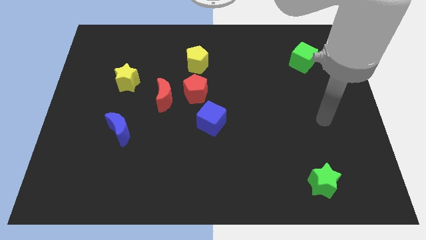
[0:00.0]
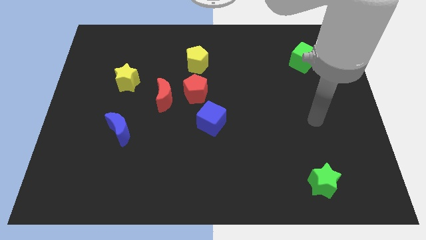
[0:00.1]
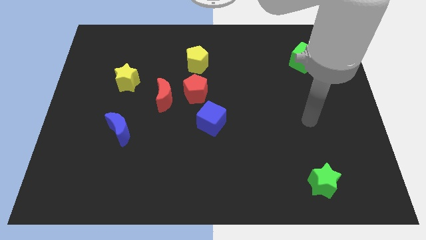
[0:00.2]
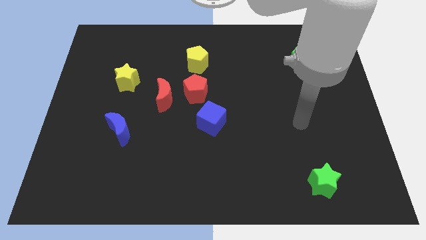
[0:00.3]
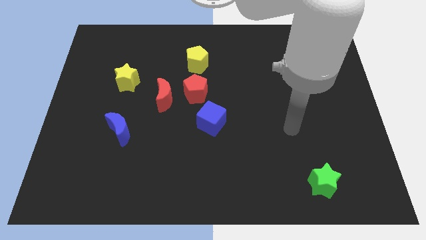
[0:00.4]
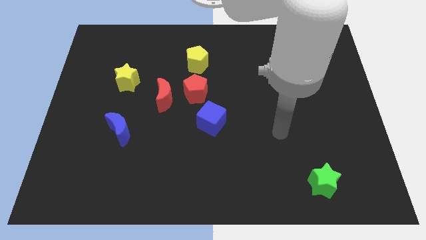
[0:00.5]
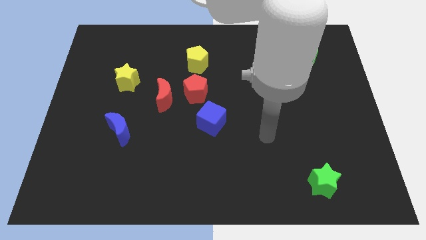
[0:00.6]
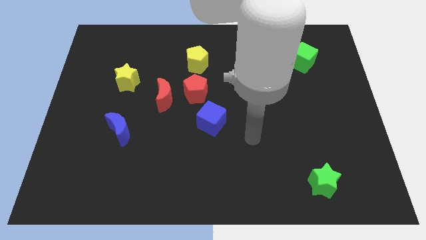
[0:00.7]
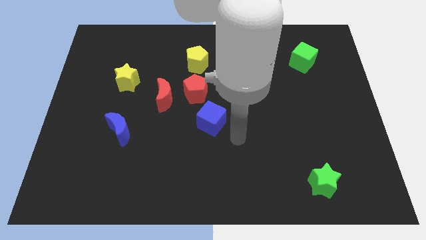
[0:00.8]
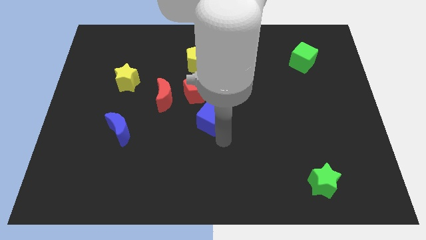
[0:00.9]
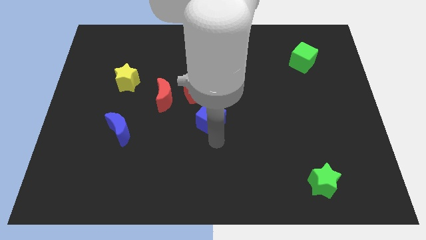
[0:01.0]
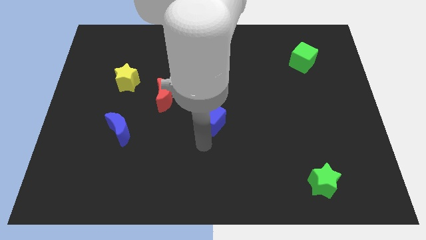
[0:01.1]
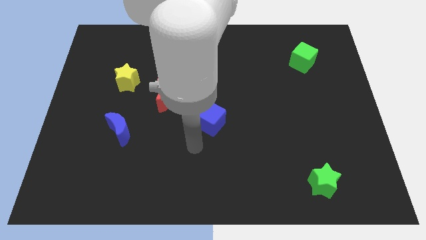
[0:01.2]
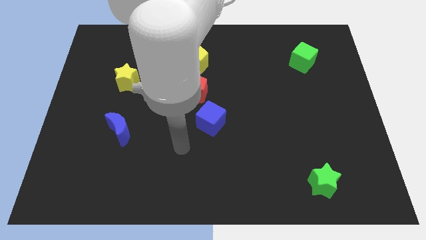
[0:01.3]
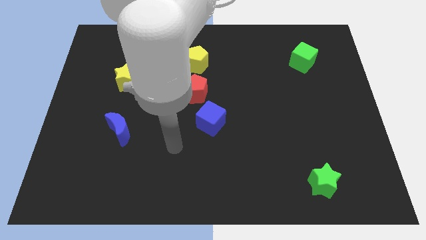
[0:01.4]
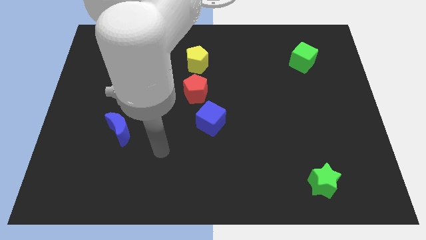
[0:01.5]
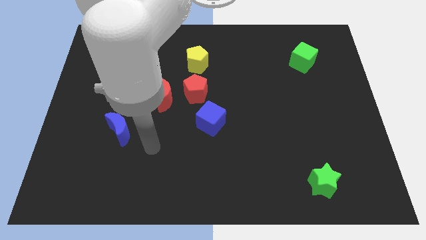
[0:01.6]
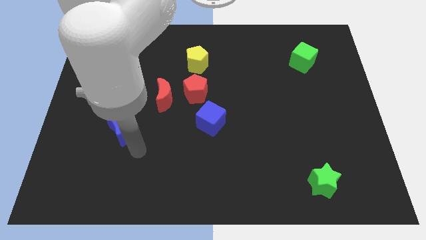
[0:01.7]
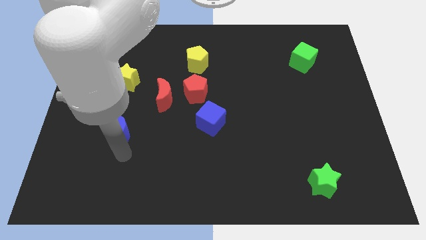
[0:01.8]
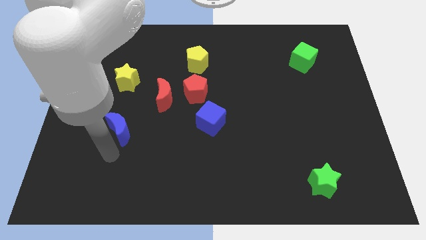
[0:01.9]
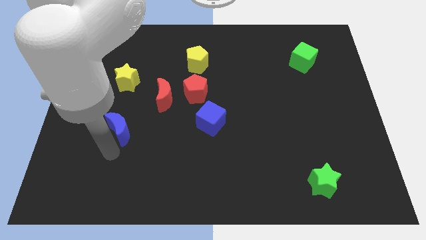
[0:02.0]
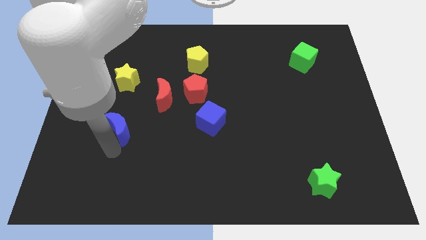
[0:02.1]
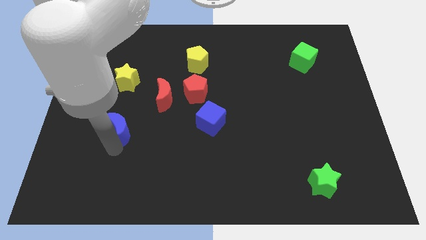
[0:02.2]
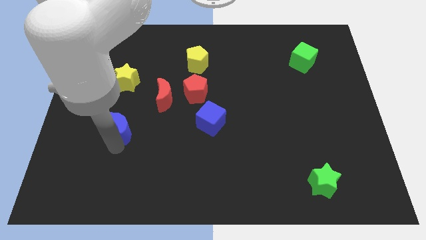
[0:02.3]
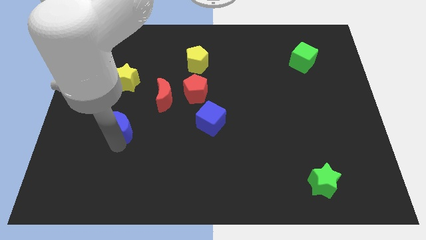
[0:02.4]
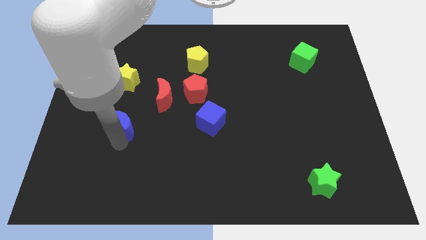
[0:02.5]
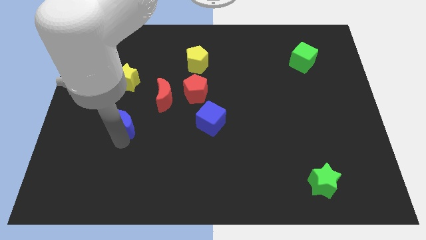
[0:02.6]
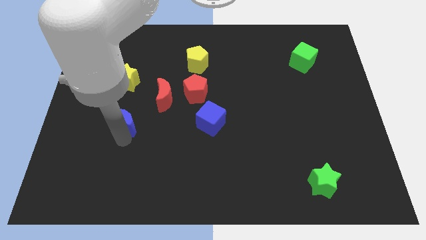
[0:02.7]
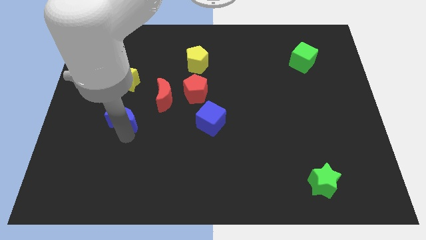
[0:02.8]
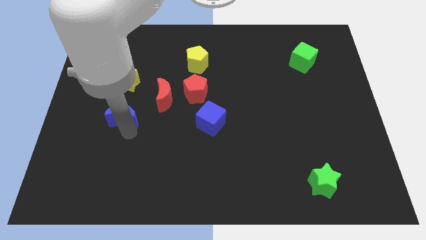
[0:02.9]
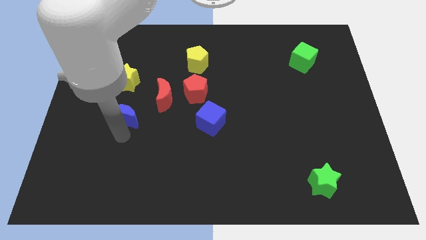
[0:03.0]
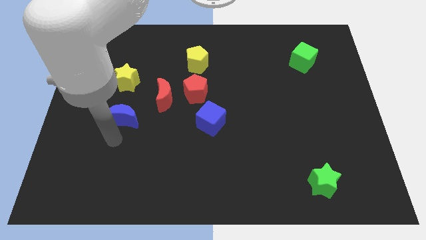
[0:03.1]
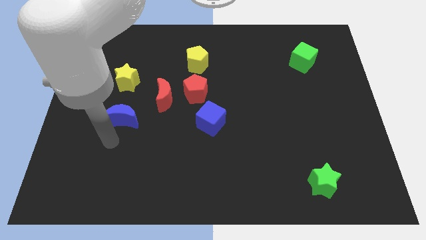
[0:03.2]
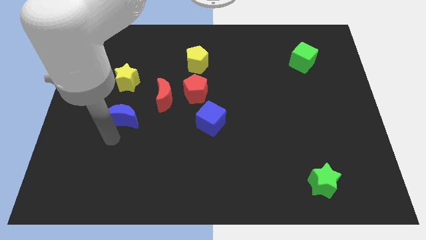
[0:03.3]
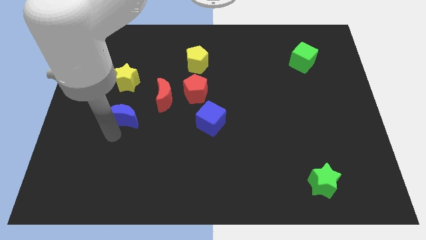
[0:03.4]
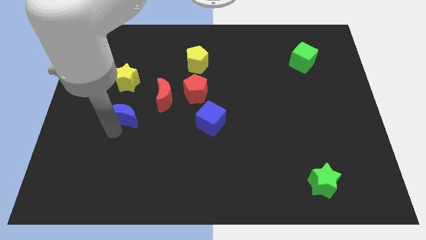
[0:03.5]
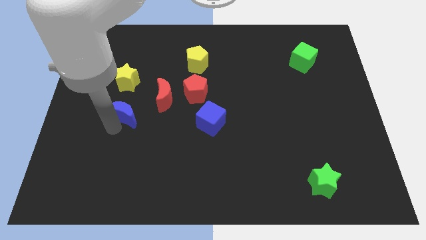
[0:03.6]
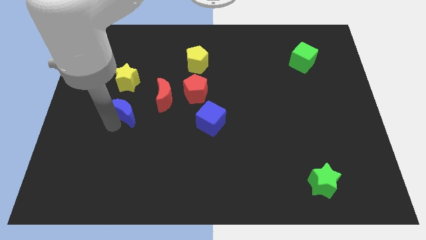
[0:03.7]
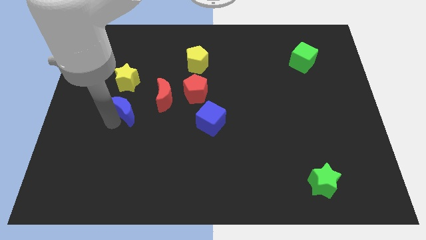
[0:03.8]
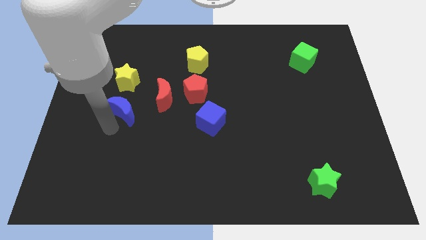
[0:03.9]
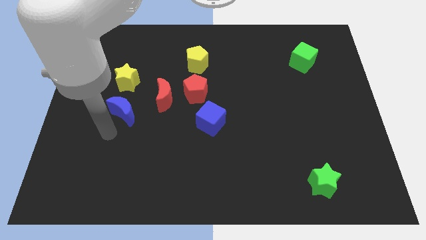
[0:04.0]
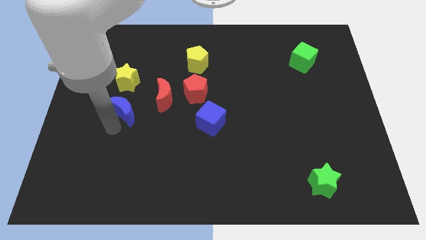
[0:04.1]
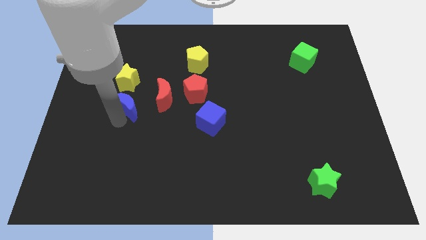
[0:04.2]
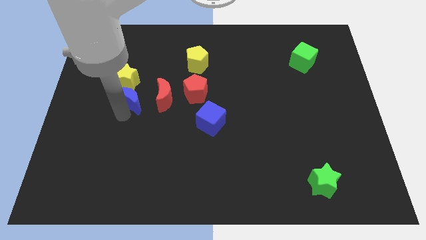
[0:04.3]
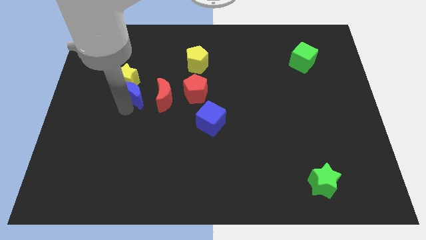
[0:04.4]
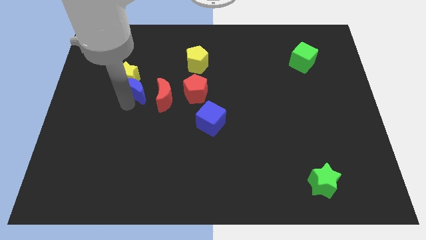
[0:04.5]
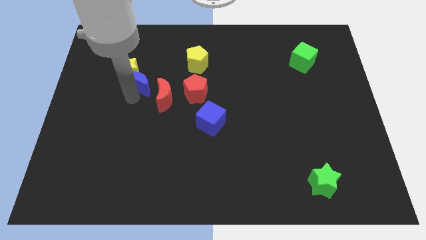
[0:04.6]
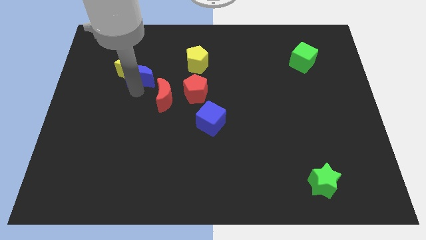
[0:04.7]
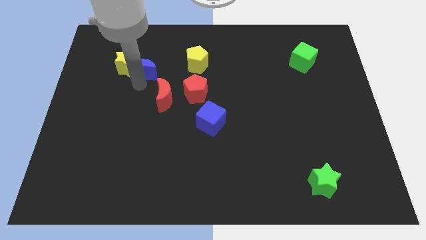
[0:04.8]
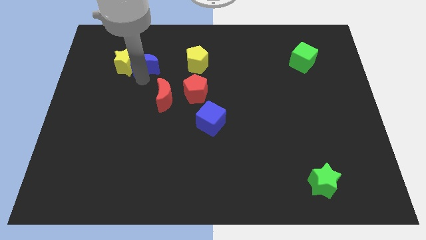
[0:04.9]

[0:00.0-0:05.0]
push the blue moon to the top right of the yellow star

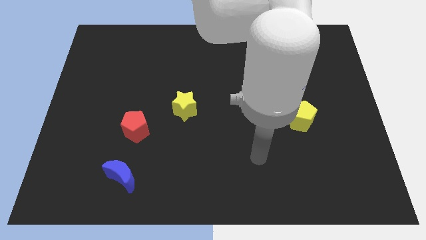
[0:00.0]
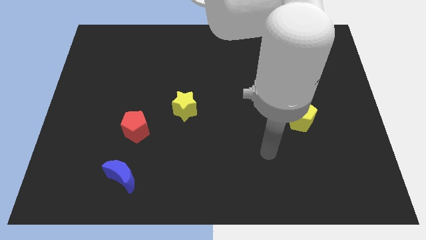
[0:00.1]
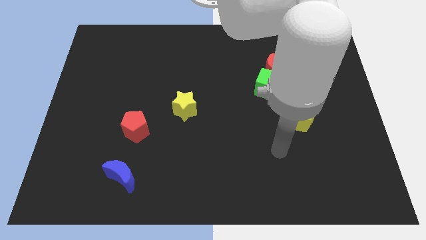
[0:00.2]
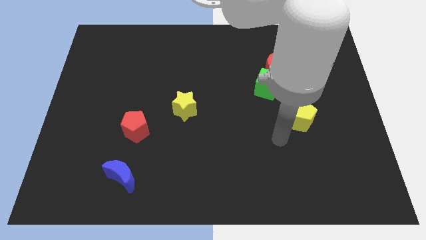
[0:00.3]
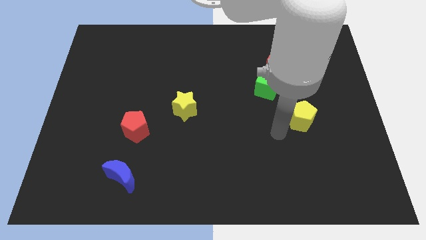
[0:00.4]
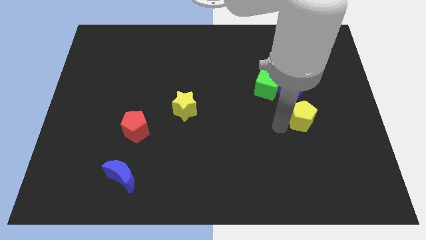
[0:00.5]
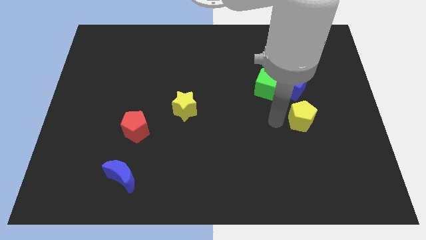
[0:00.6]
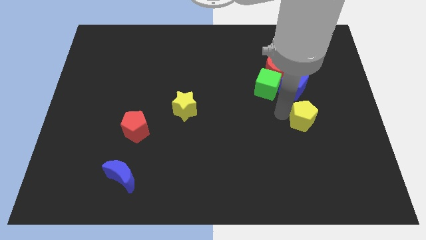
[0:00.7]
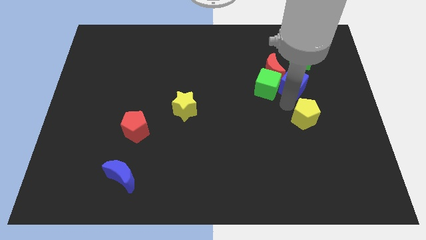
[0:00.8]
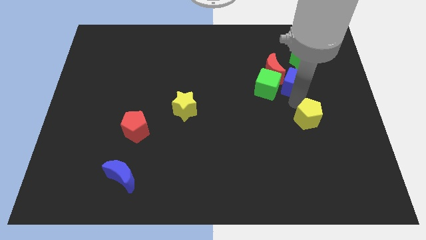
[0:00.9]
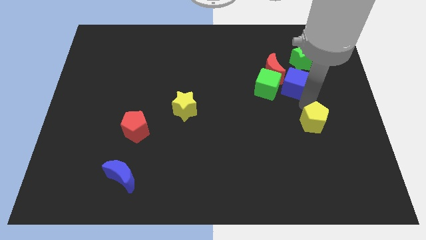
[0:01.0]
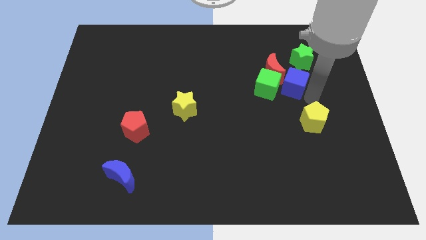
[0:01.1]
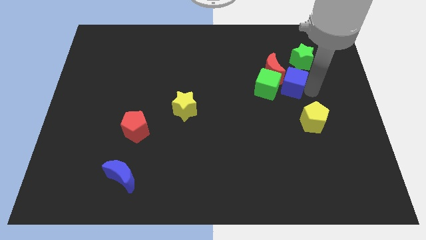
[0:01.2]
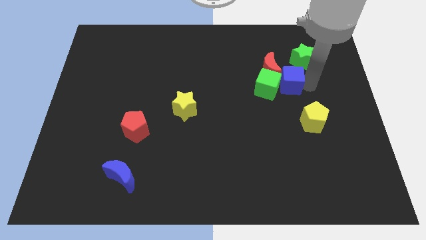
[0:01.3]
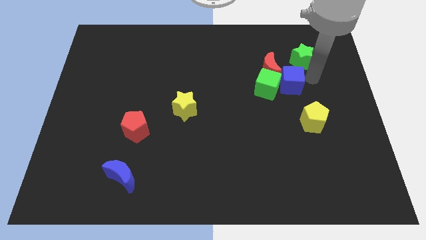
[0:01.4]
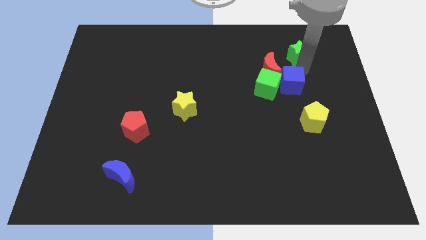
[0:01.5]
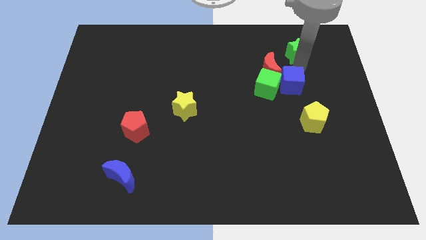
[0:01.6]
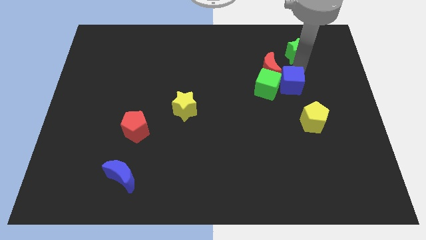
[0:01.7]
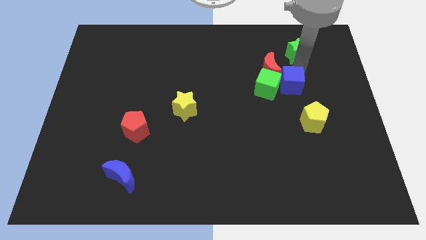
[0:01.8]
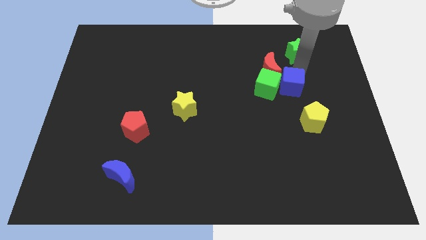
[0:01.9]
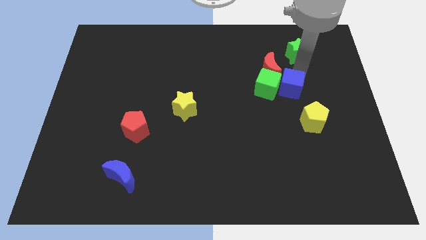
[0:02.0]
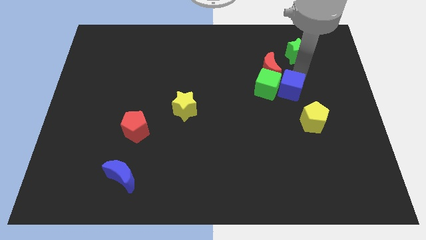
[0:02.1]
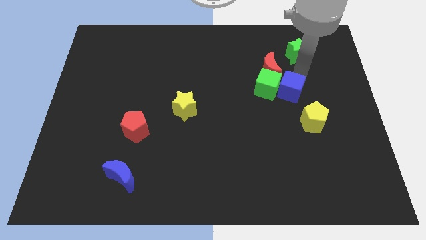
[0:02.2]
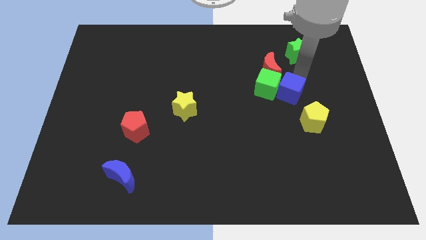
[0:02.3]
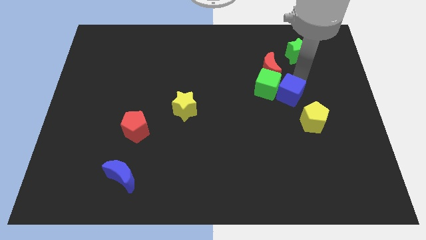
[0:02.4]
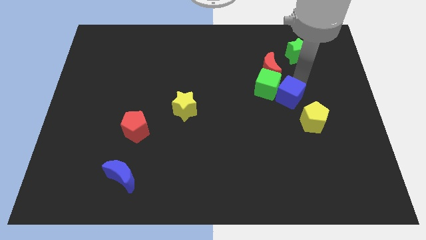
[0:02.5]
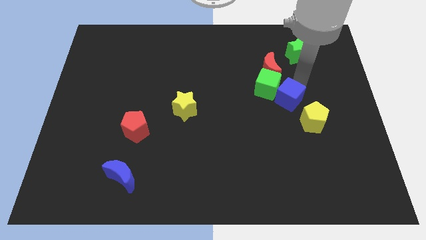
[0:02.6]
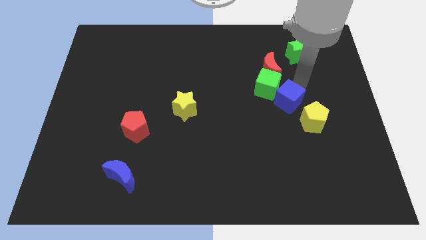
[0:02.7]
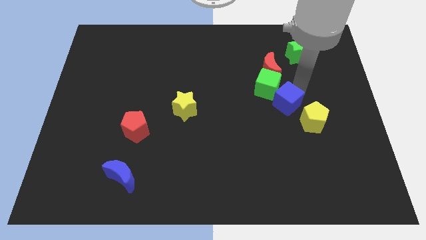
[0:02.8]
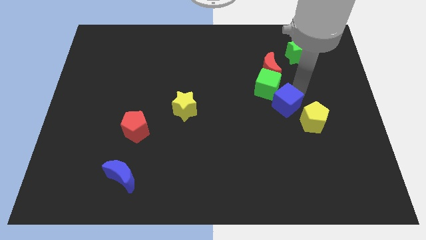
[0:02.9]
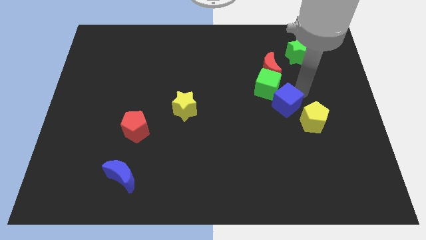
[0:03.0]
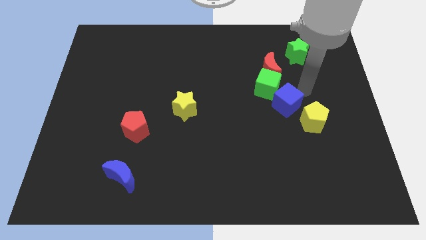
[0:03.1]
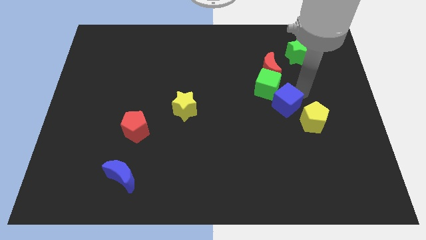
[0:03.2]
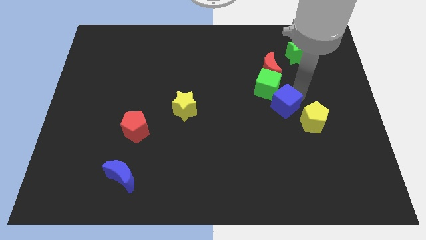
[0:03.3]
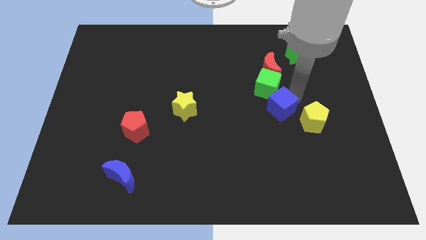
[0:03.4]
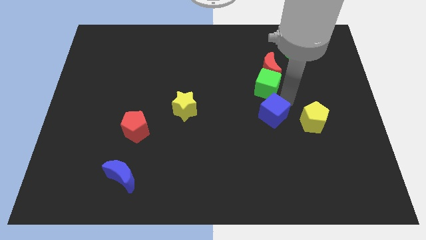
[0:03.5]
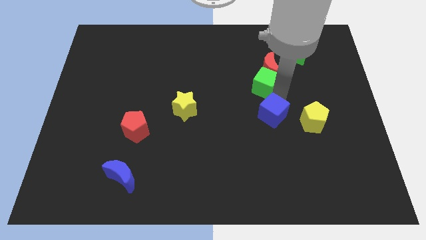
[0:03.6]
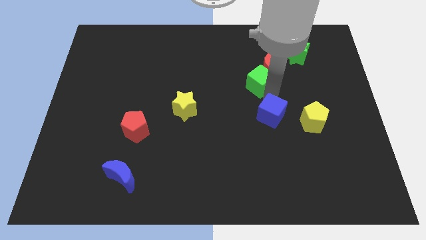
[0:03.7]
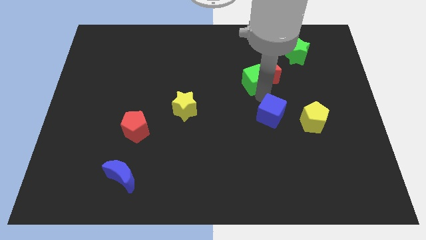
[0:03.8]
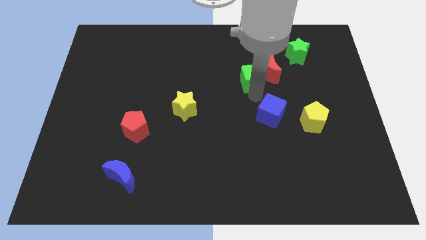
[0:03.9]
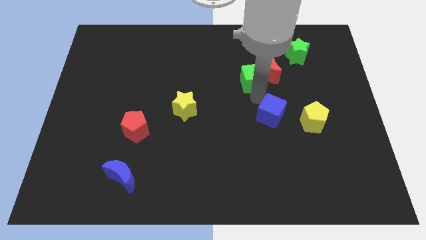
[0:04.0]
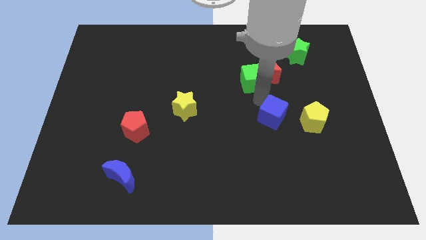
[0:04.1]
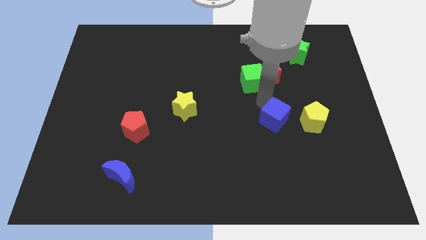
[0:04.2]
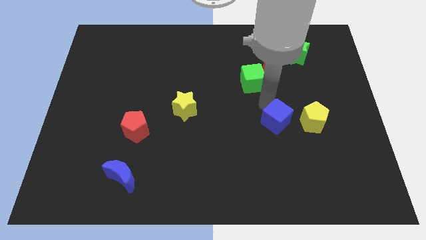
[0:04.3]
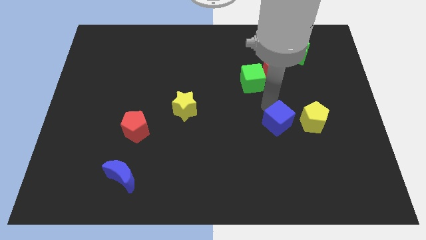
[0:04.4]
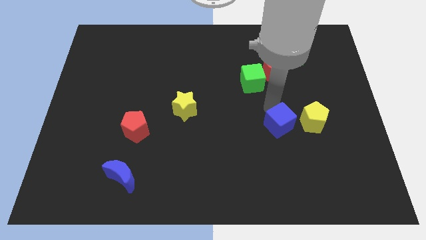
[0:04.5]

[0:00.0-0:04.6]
put the blue cube diagonally down and to the left of the yellow pentagon
